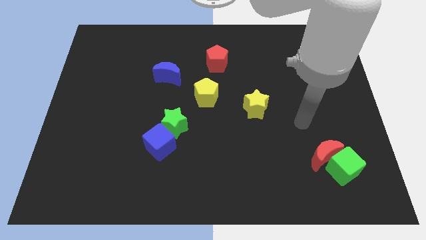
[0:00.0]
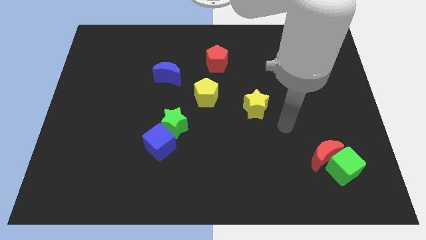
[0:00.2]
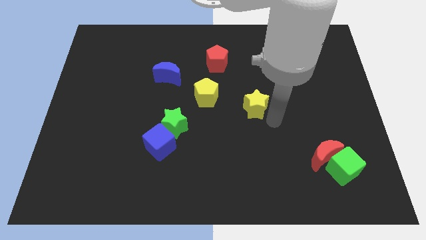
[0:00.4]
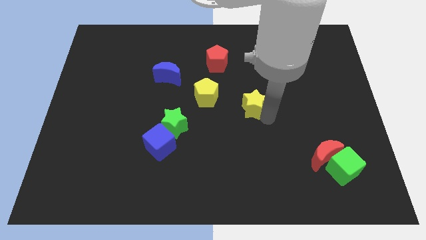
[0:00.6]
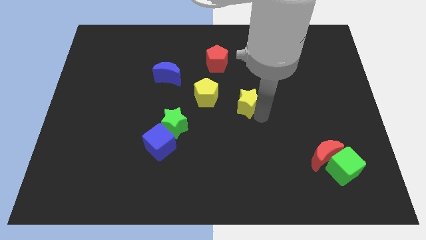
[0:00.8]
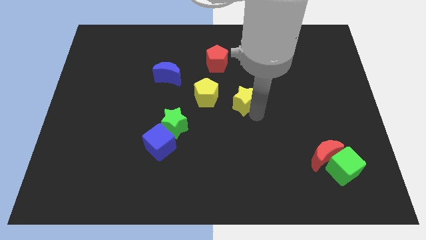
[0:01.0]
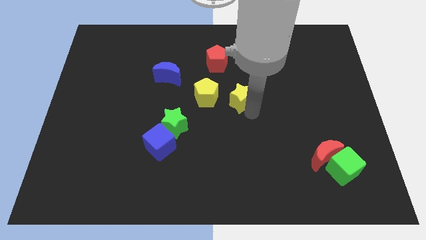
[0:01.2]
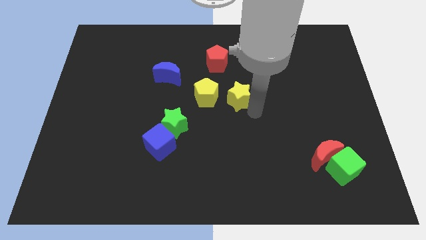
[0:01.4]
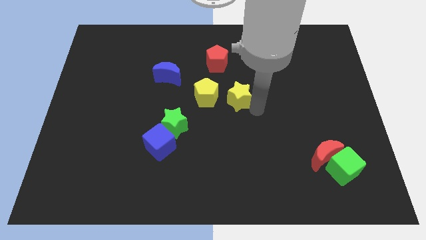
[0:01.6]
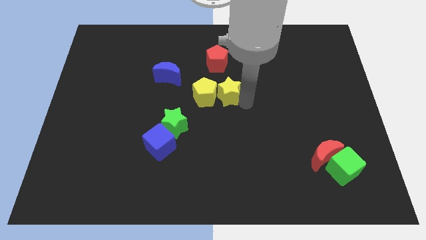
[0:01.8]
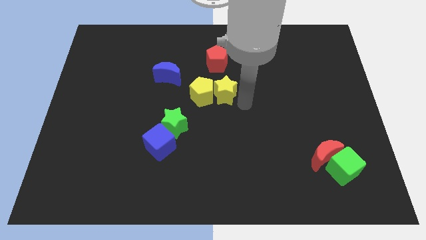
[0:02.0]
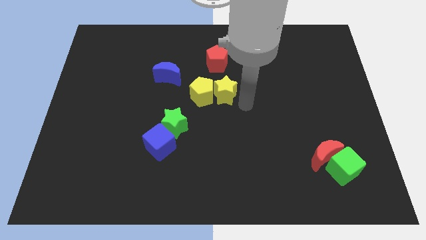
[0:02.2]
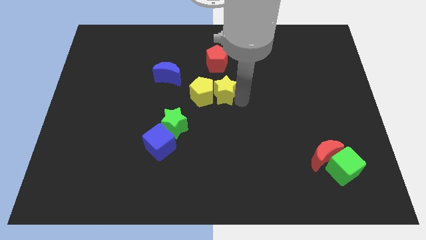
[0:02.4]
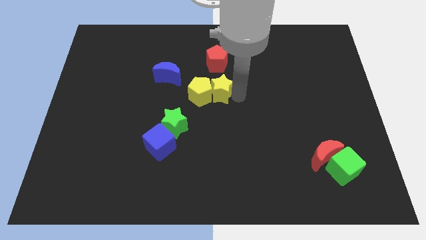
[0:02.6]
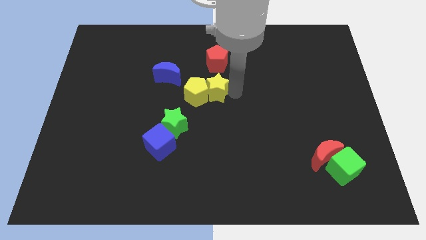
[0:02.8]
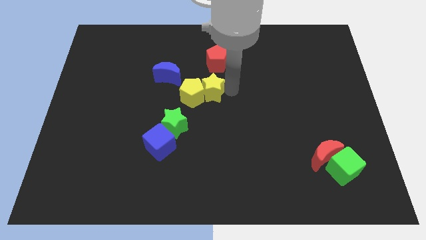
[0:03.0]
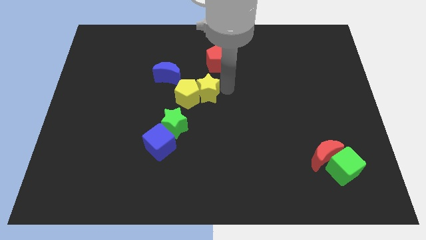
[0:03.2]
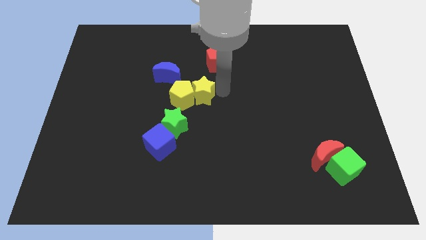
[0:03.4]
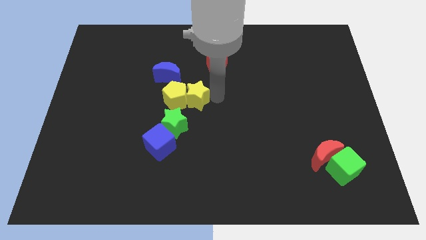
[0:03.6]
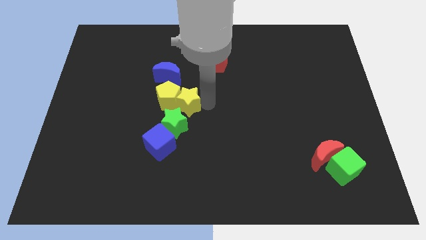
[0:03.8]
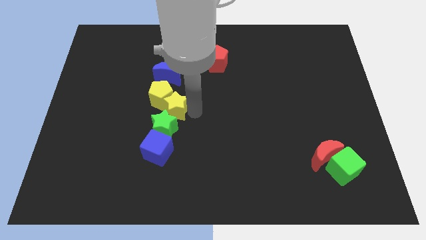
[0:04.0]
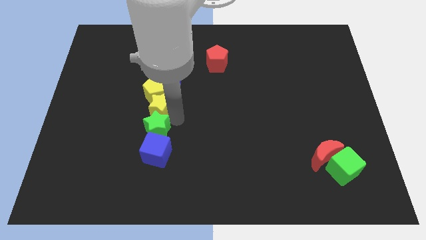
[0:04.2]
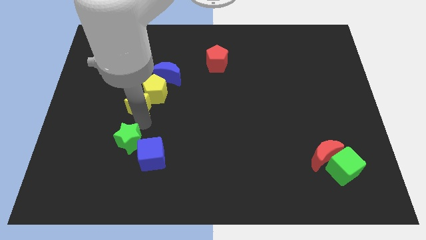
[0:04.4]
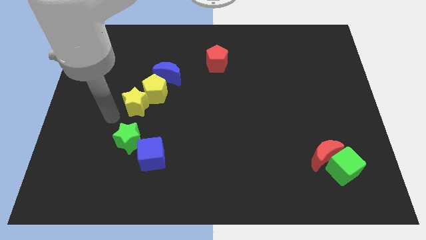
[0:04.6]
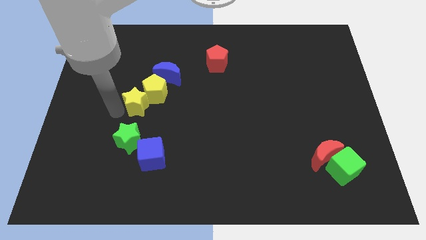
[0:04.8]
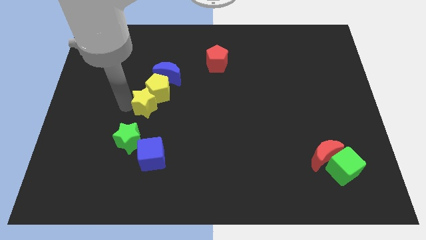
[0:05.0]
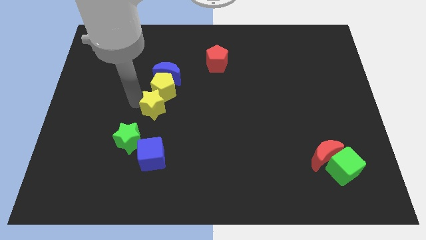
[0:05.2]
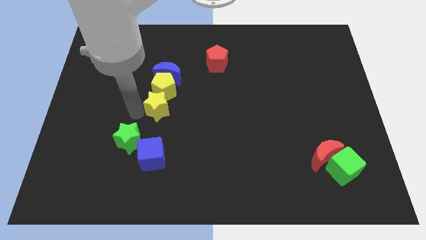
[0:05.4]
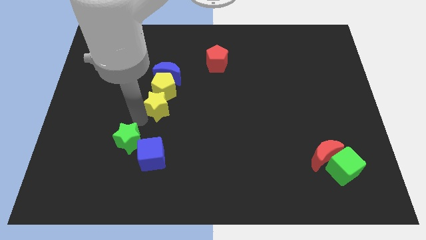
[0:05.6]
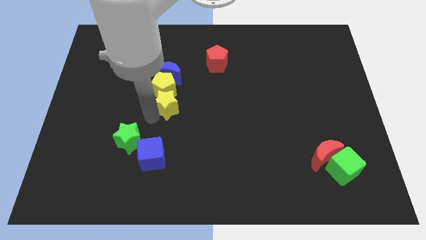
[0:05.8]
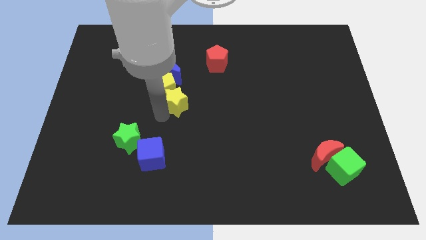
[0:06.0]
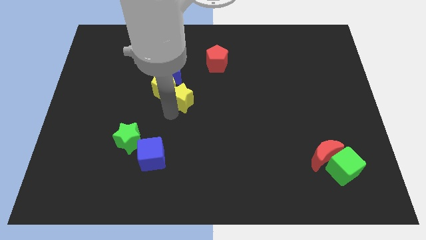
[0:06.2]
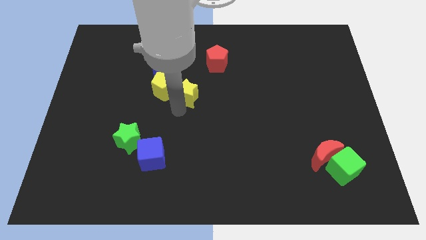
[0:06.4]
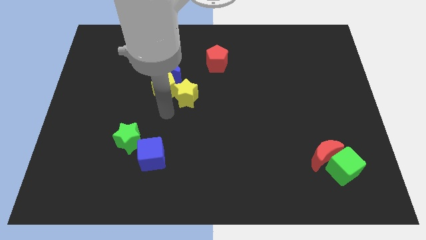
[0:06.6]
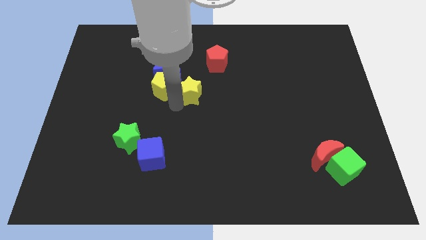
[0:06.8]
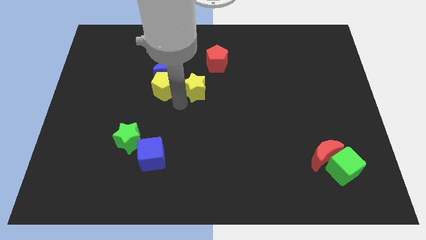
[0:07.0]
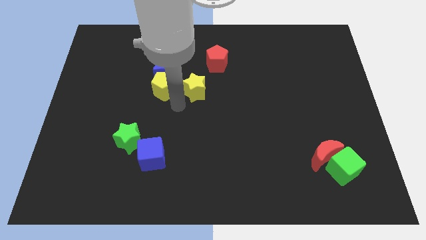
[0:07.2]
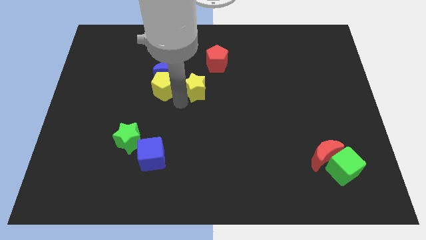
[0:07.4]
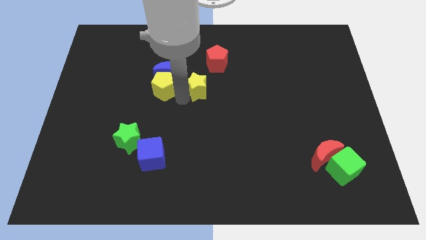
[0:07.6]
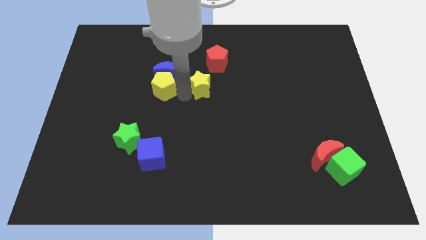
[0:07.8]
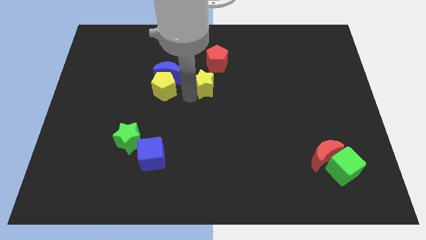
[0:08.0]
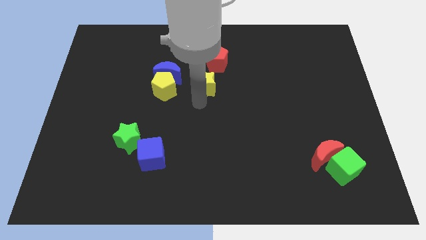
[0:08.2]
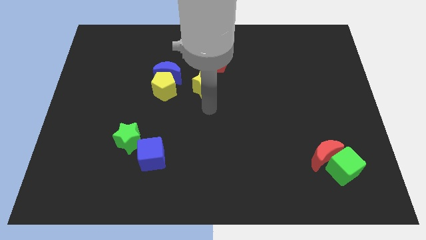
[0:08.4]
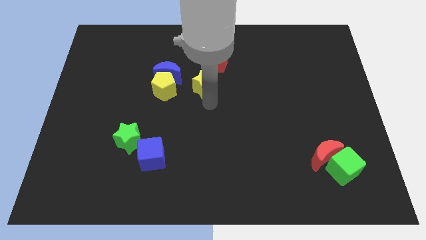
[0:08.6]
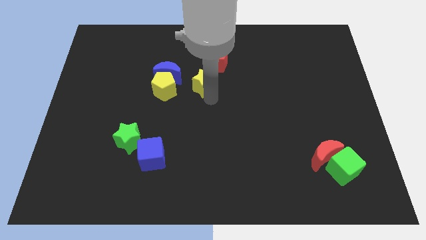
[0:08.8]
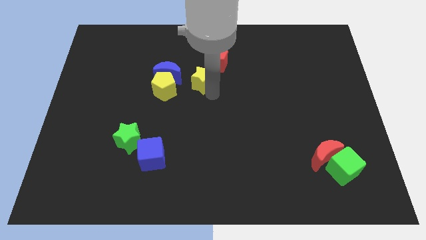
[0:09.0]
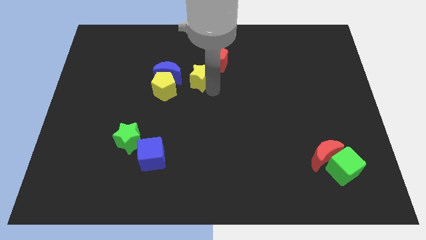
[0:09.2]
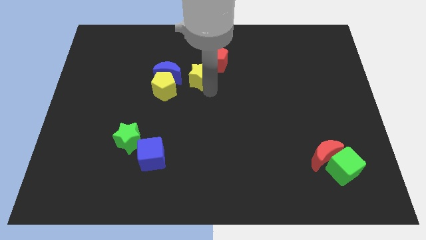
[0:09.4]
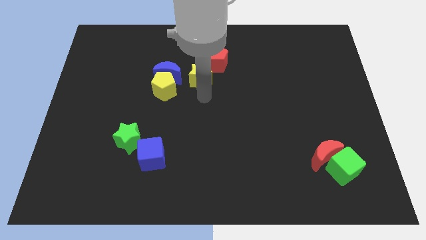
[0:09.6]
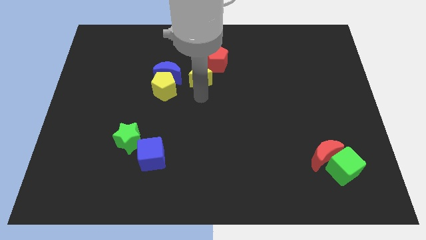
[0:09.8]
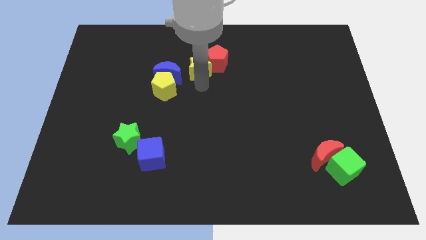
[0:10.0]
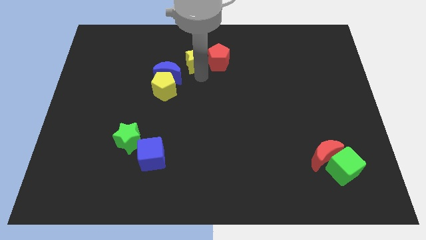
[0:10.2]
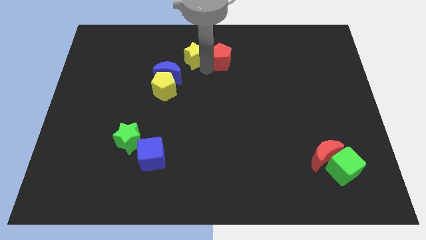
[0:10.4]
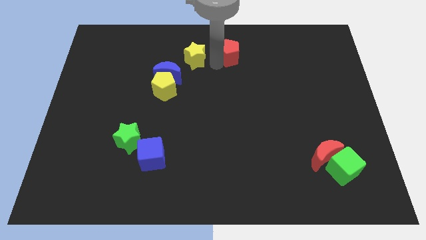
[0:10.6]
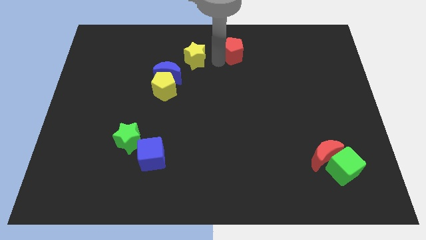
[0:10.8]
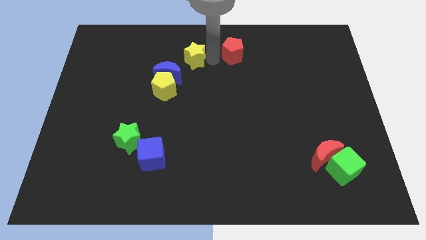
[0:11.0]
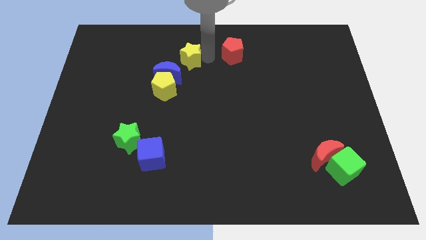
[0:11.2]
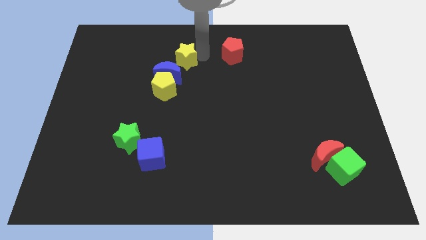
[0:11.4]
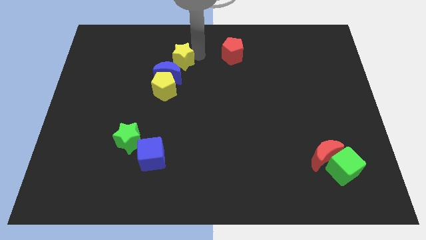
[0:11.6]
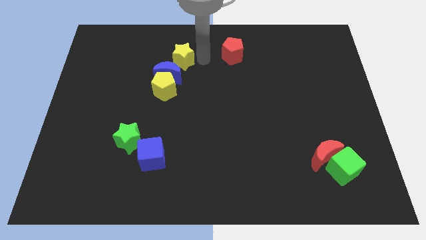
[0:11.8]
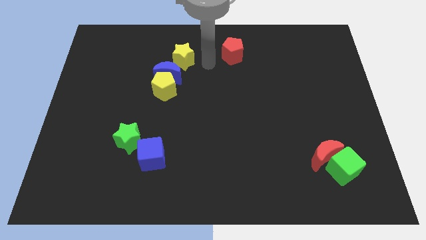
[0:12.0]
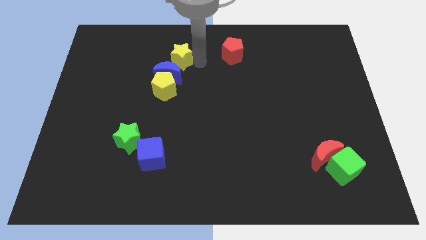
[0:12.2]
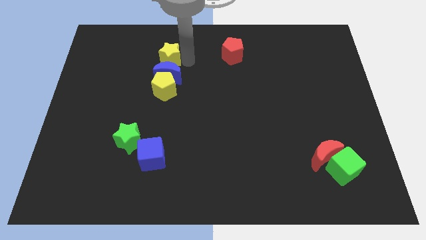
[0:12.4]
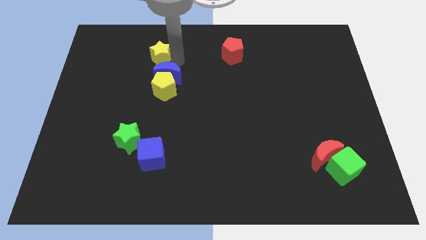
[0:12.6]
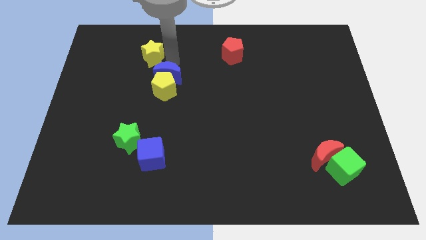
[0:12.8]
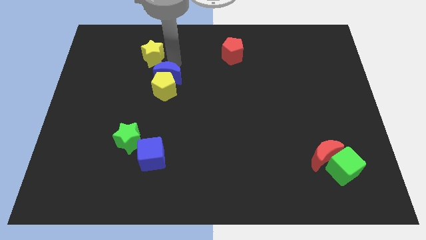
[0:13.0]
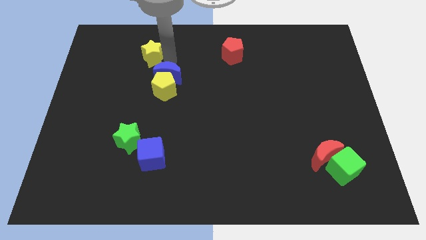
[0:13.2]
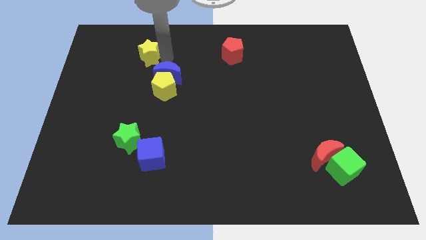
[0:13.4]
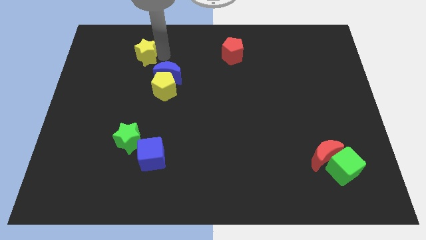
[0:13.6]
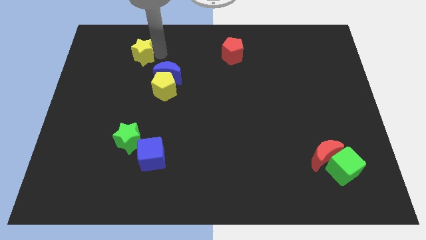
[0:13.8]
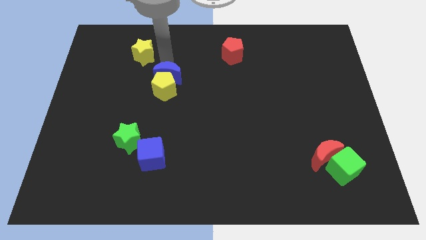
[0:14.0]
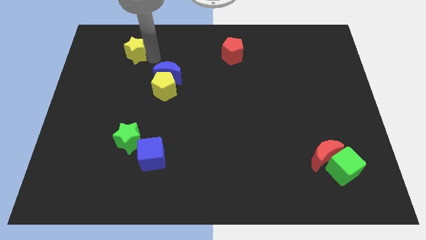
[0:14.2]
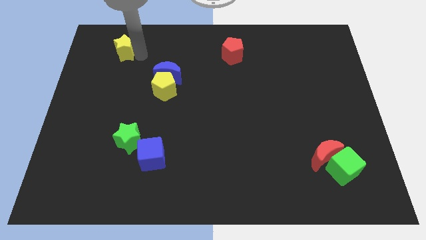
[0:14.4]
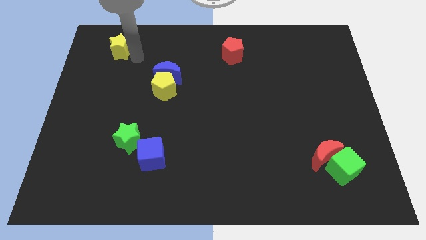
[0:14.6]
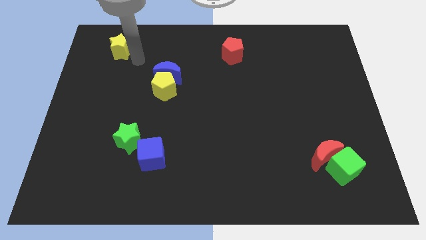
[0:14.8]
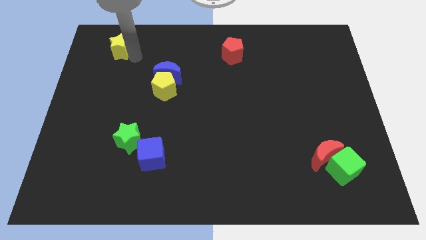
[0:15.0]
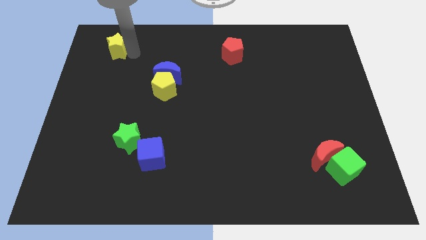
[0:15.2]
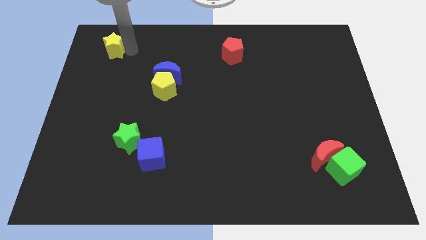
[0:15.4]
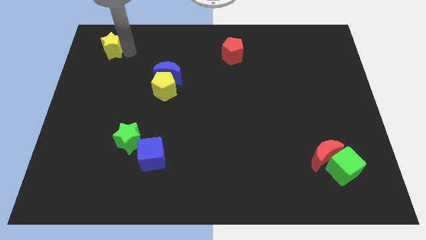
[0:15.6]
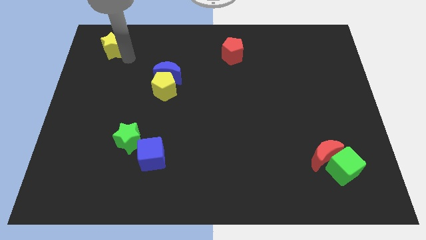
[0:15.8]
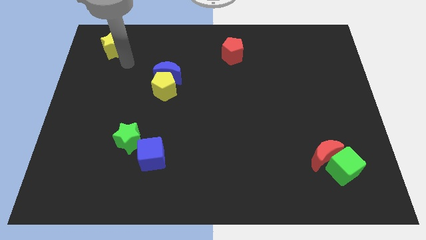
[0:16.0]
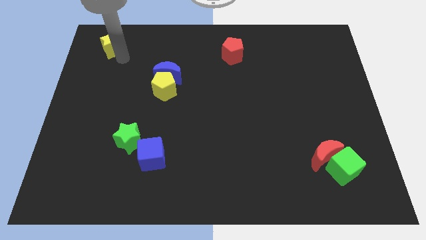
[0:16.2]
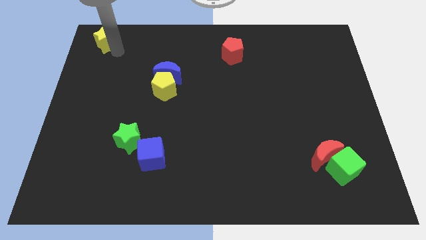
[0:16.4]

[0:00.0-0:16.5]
slide the yellow star to the top left corner
